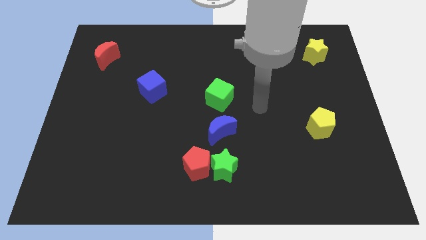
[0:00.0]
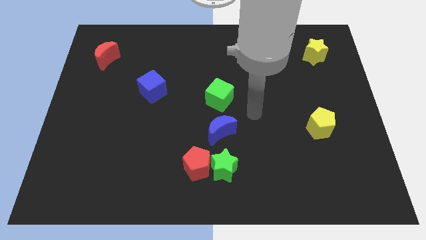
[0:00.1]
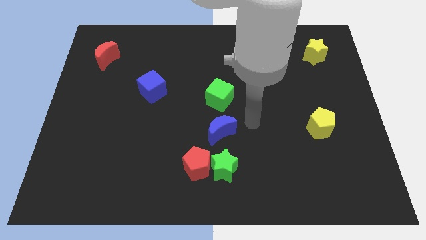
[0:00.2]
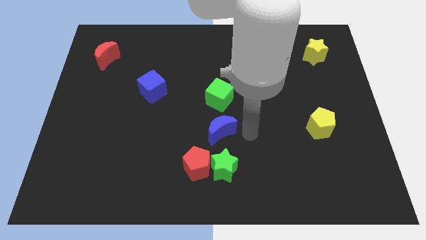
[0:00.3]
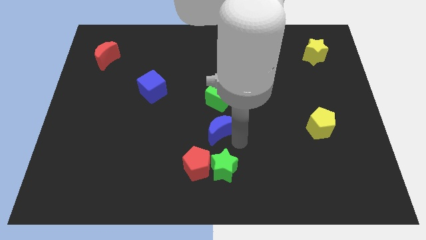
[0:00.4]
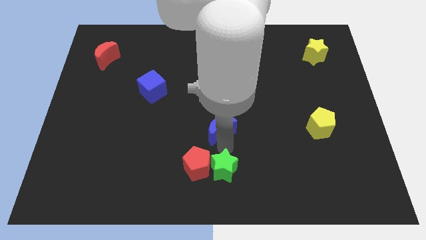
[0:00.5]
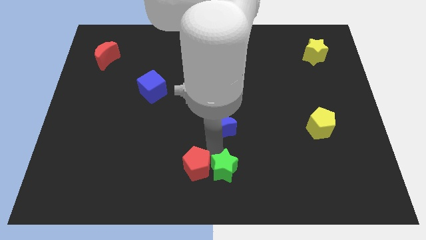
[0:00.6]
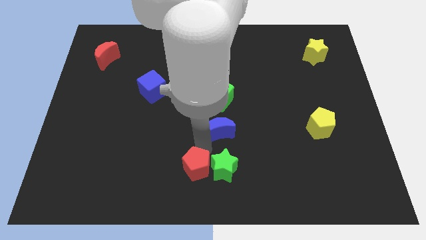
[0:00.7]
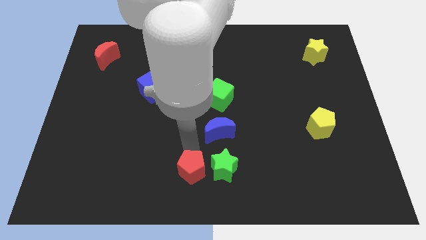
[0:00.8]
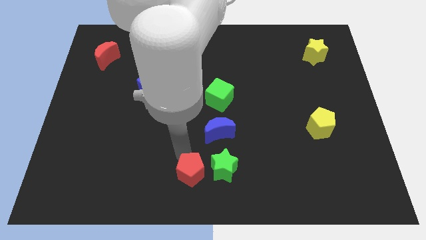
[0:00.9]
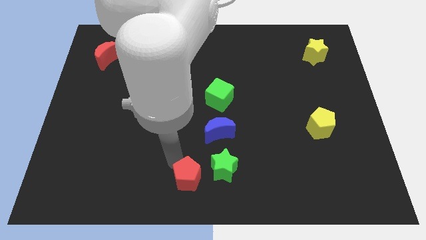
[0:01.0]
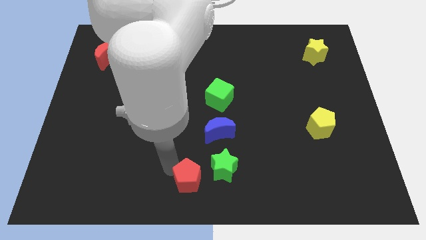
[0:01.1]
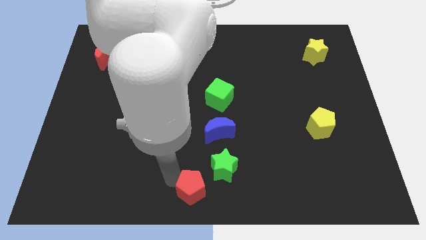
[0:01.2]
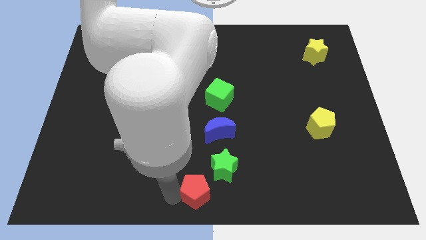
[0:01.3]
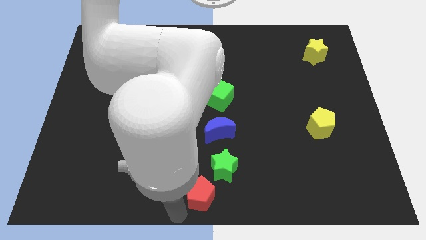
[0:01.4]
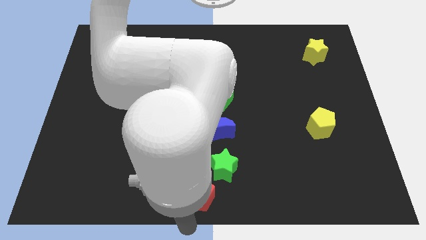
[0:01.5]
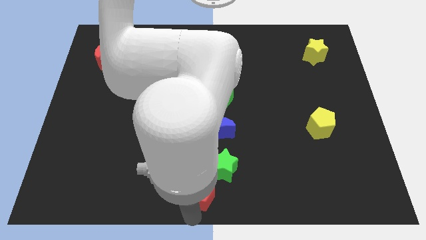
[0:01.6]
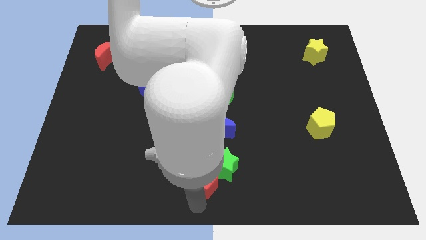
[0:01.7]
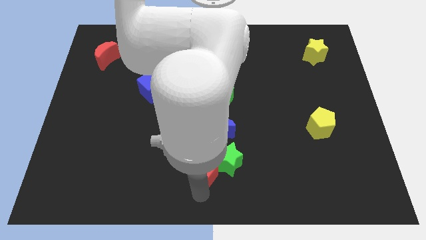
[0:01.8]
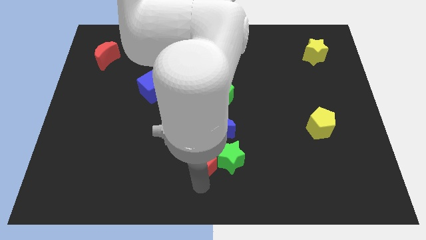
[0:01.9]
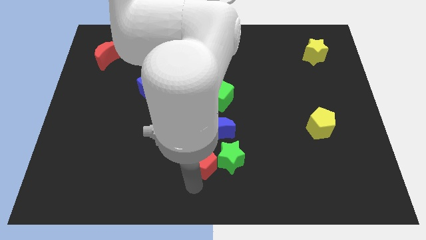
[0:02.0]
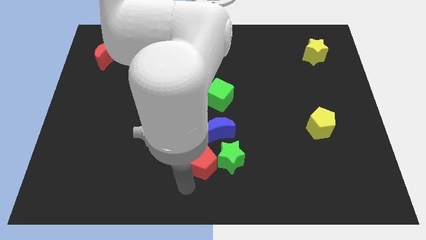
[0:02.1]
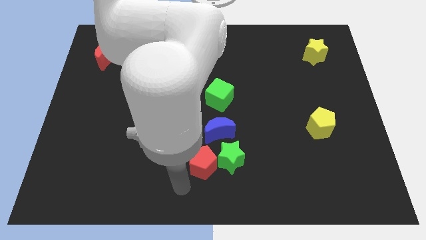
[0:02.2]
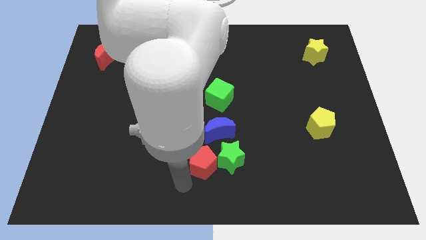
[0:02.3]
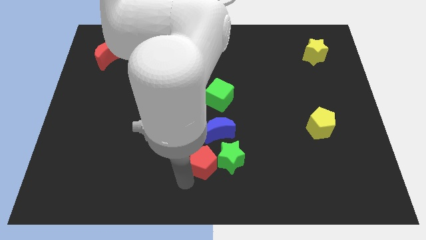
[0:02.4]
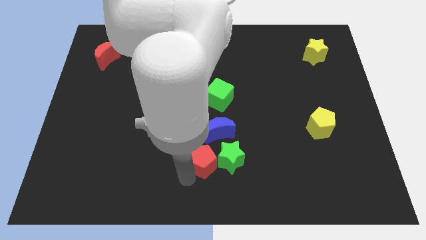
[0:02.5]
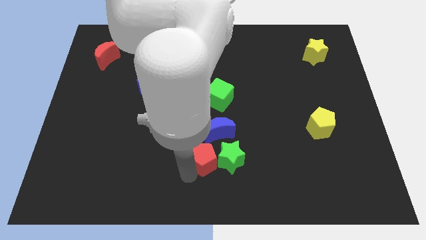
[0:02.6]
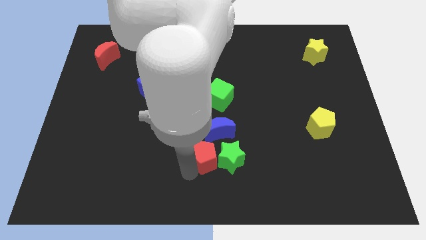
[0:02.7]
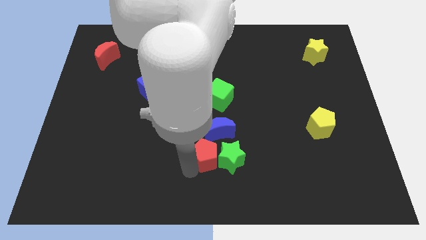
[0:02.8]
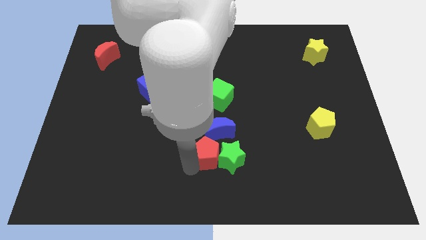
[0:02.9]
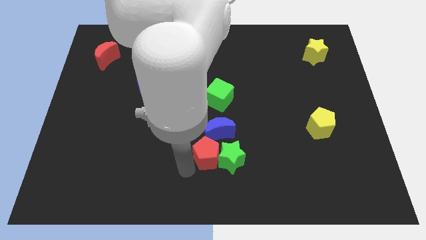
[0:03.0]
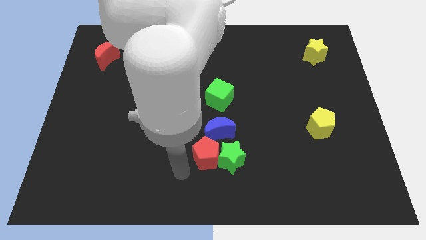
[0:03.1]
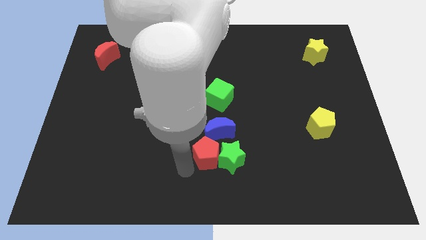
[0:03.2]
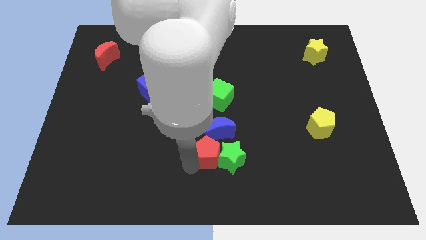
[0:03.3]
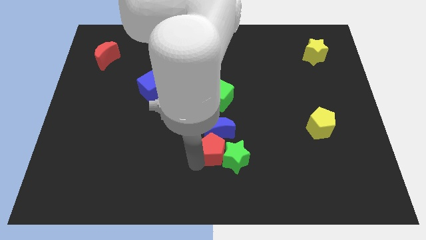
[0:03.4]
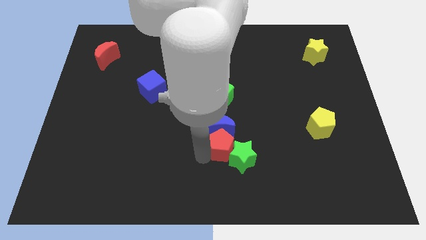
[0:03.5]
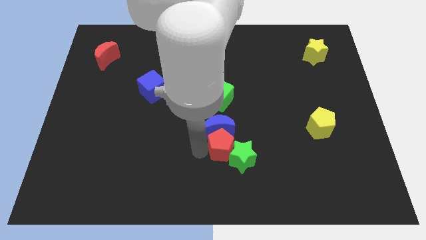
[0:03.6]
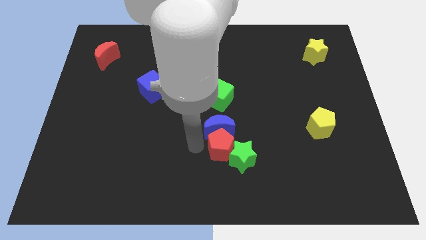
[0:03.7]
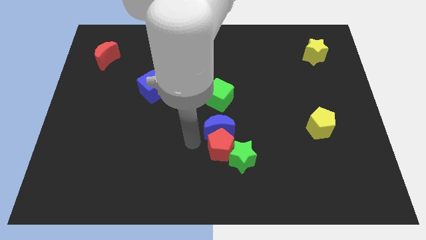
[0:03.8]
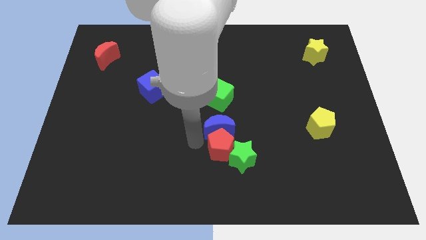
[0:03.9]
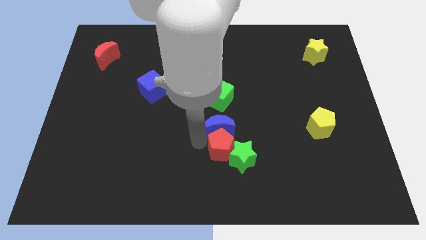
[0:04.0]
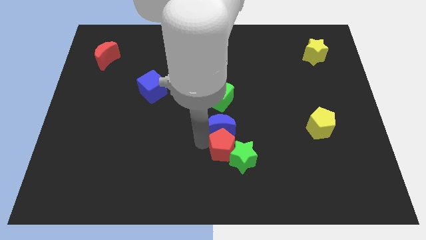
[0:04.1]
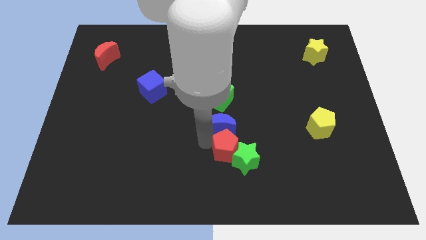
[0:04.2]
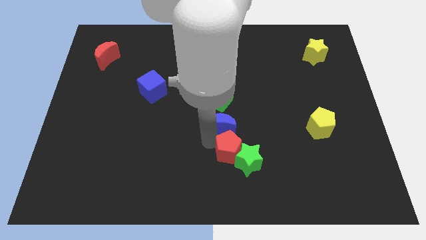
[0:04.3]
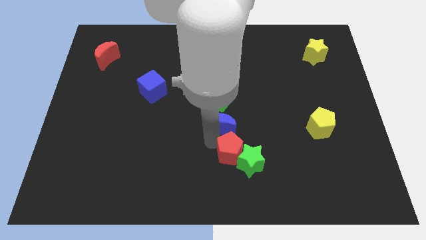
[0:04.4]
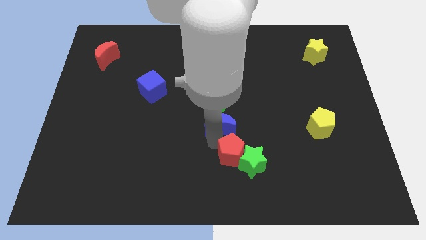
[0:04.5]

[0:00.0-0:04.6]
slightly move the red pentagon right

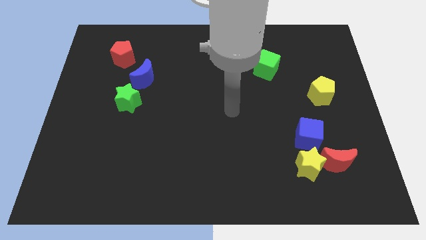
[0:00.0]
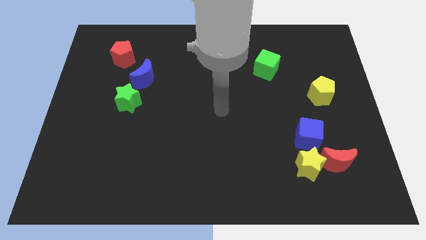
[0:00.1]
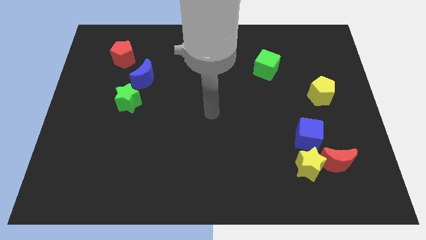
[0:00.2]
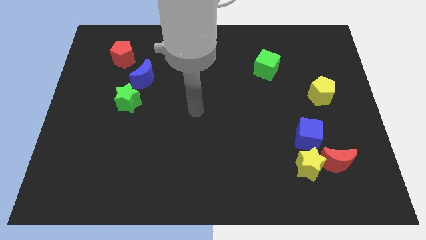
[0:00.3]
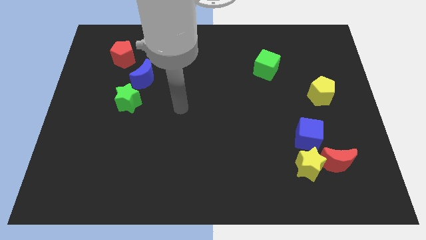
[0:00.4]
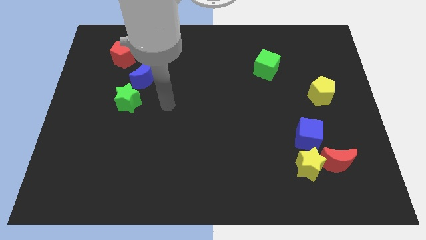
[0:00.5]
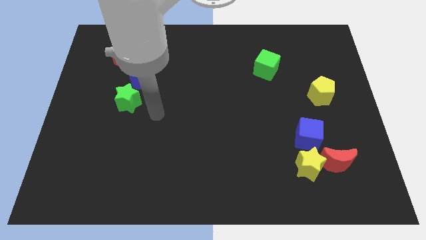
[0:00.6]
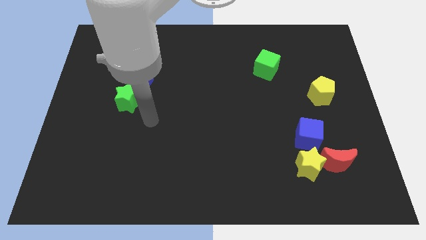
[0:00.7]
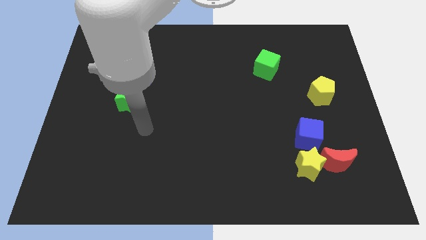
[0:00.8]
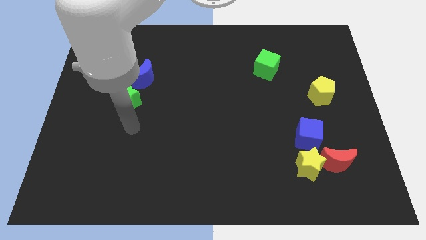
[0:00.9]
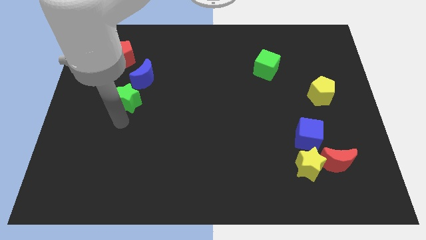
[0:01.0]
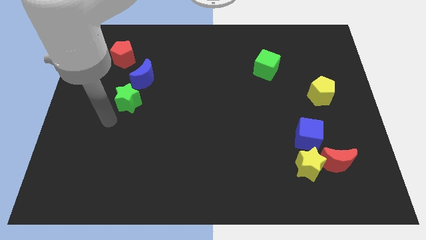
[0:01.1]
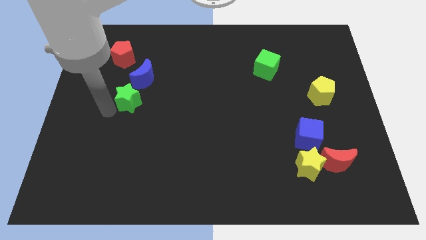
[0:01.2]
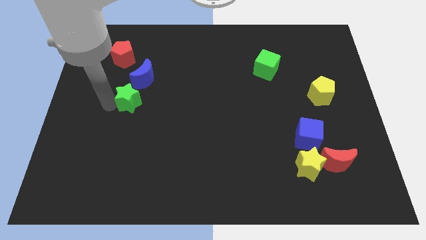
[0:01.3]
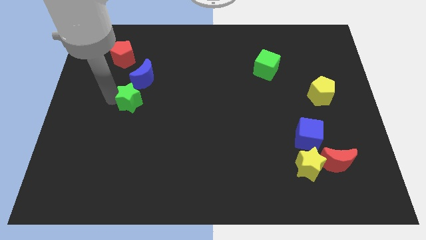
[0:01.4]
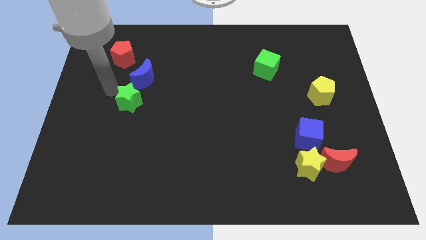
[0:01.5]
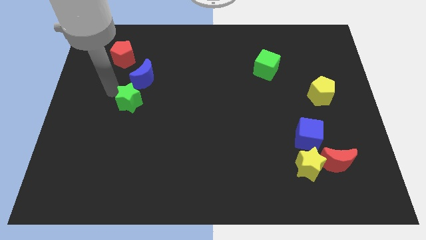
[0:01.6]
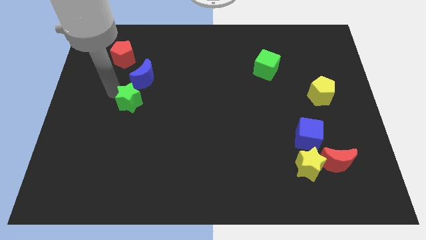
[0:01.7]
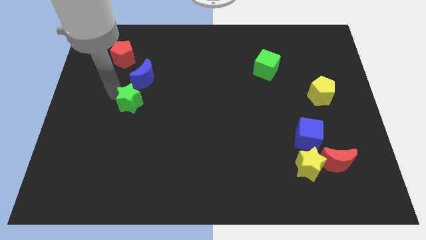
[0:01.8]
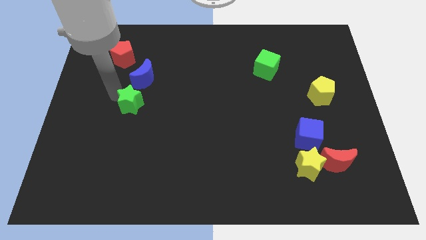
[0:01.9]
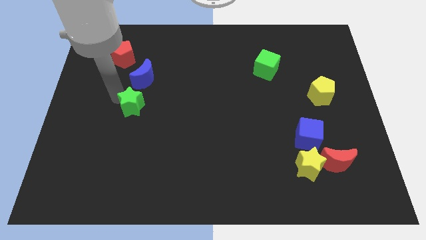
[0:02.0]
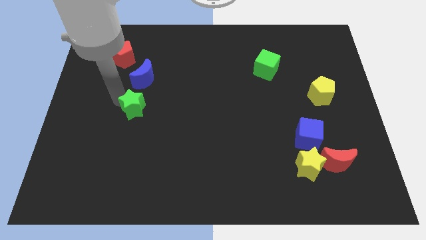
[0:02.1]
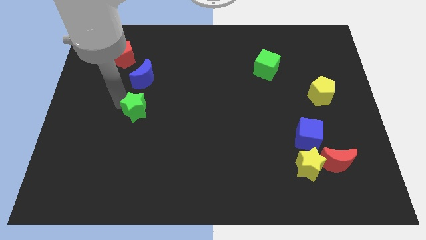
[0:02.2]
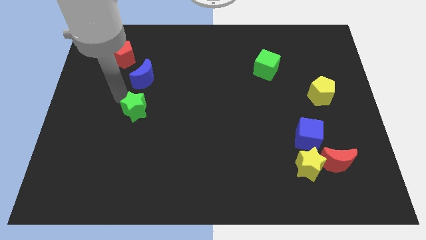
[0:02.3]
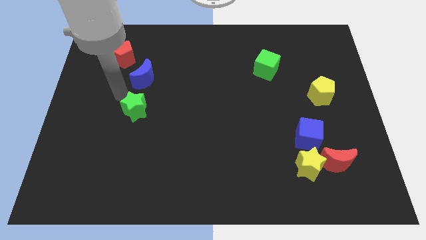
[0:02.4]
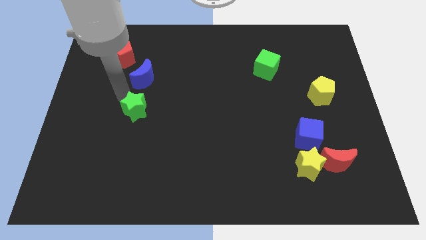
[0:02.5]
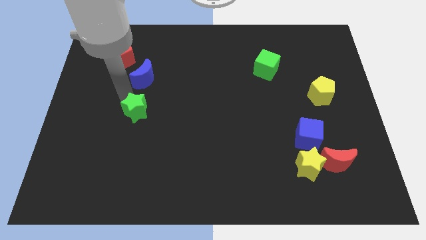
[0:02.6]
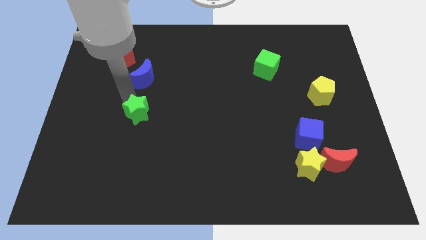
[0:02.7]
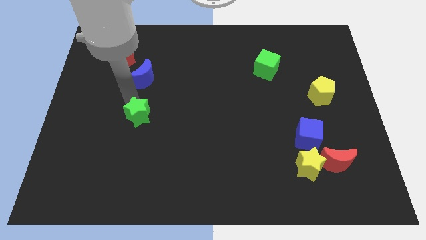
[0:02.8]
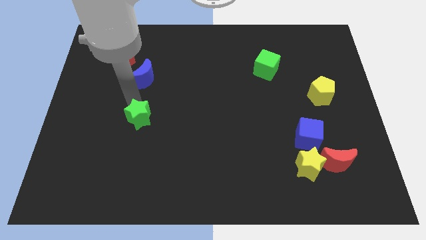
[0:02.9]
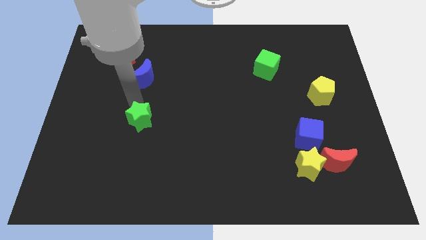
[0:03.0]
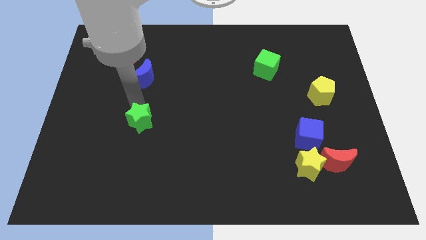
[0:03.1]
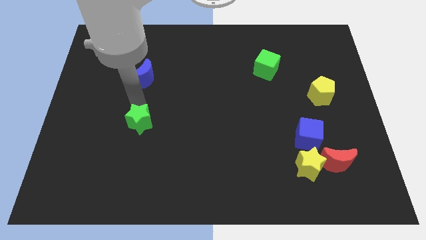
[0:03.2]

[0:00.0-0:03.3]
move the green star downwards and to the right diagonally slightly
